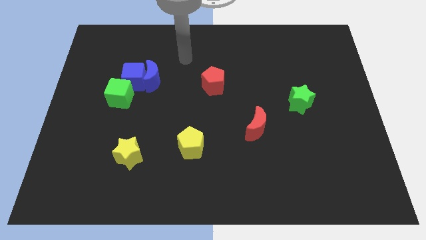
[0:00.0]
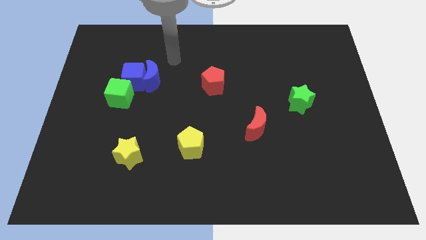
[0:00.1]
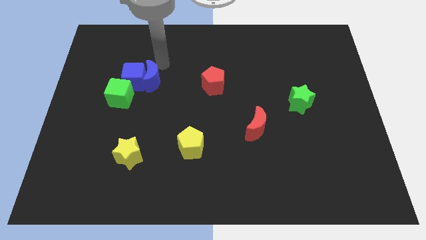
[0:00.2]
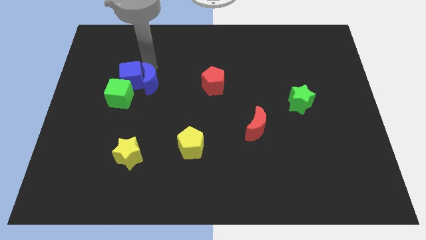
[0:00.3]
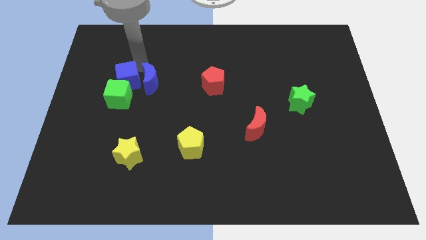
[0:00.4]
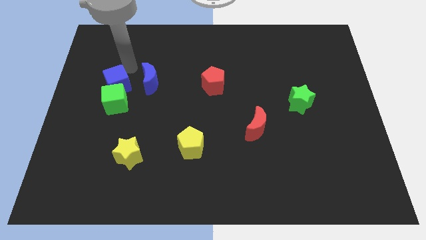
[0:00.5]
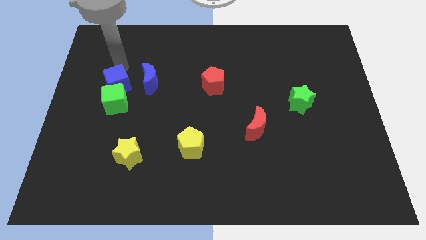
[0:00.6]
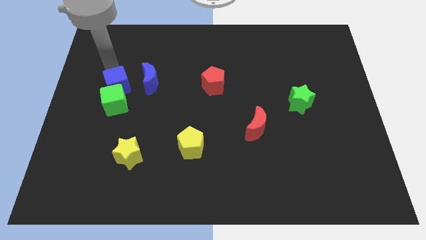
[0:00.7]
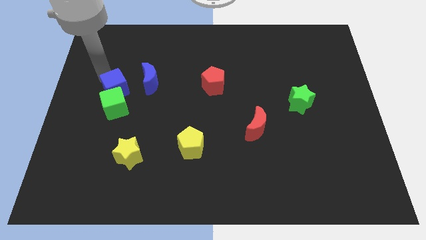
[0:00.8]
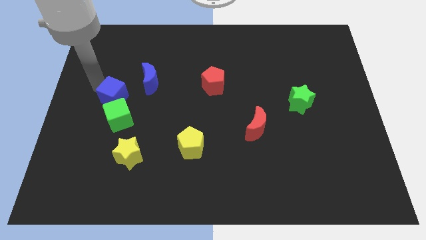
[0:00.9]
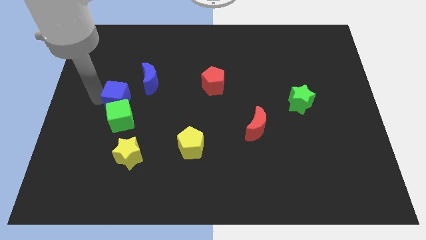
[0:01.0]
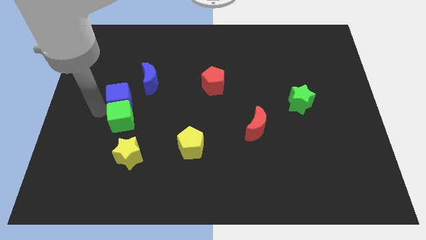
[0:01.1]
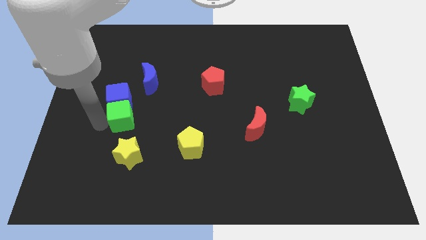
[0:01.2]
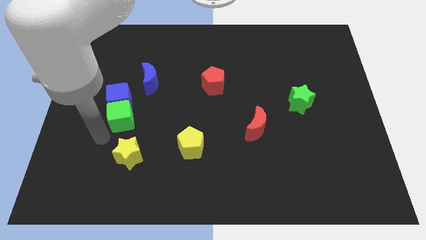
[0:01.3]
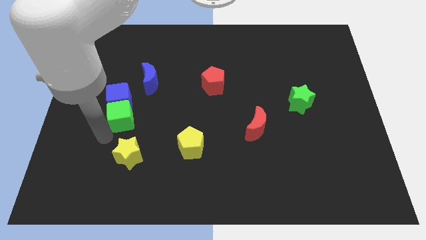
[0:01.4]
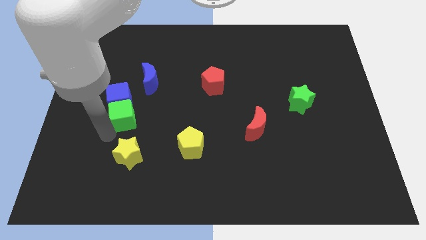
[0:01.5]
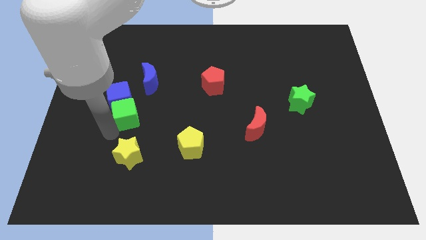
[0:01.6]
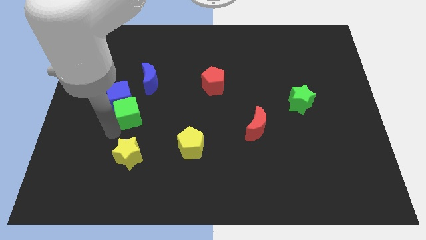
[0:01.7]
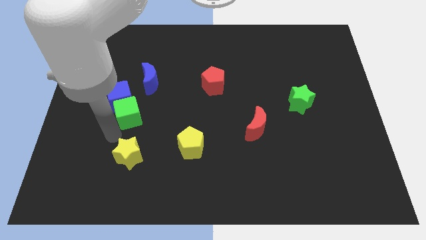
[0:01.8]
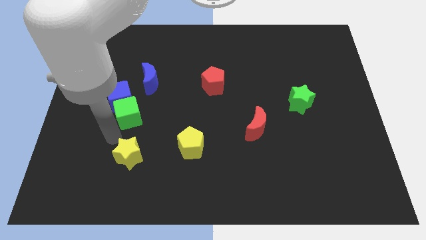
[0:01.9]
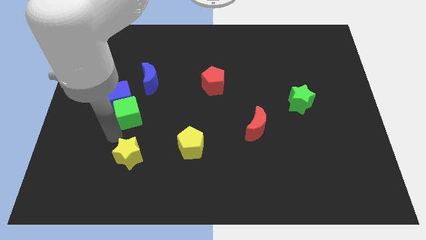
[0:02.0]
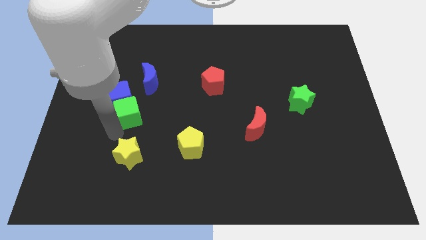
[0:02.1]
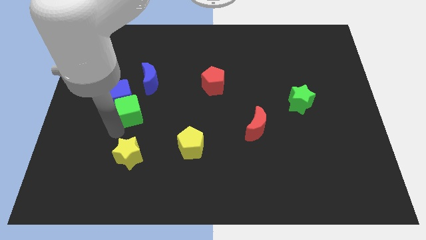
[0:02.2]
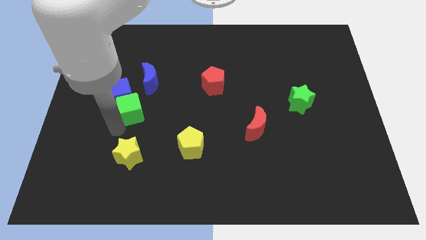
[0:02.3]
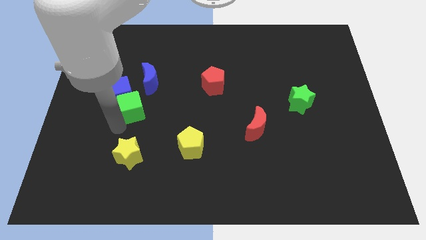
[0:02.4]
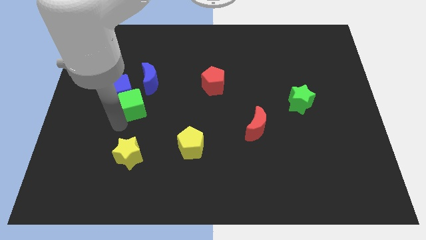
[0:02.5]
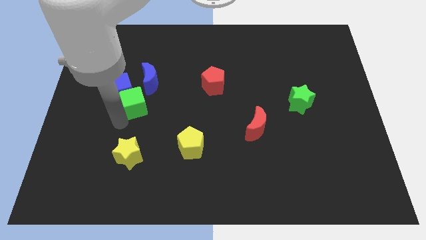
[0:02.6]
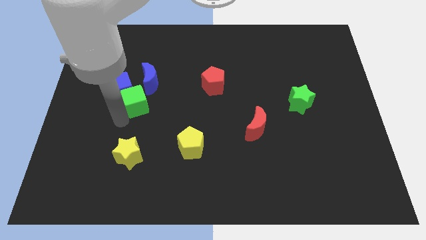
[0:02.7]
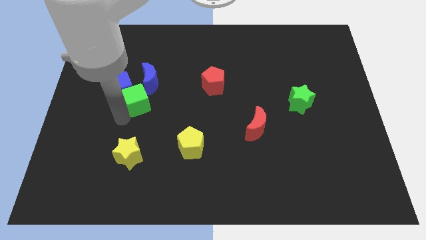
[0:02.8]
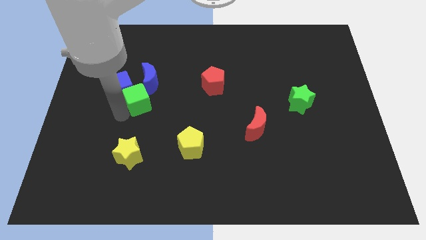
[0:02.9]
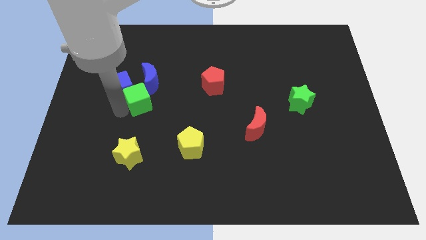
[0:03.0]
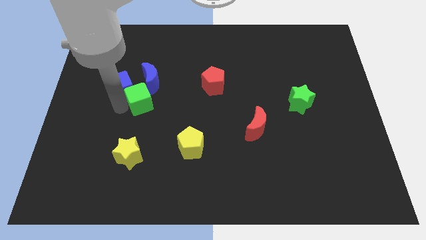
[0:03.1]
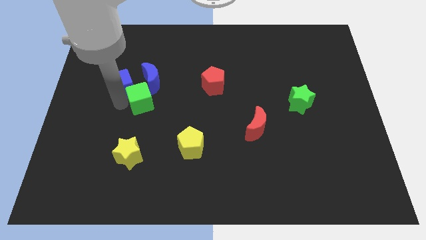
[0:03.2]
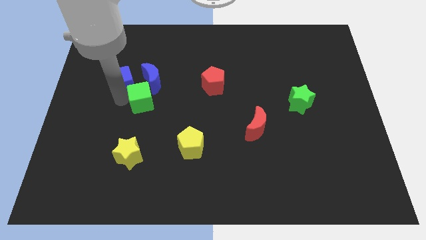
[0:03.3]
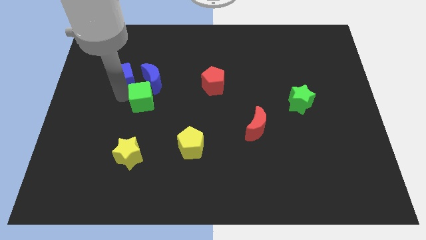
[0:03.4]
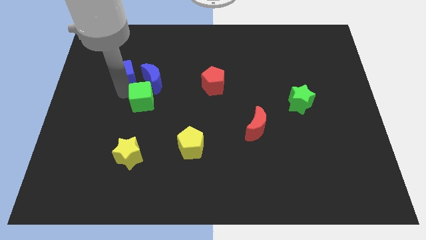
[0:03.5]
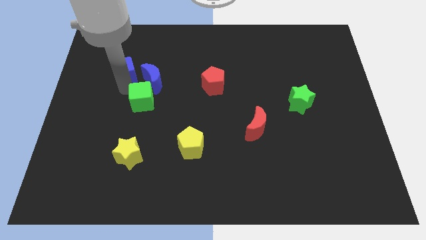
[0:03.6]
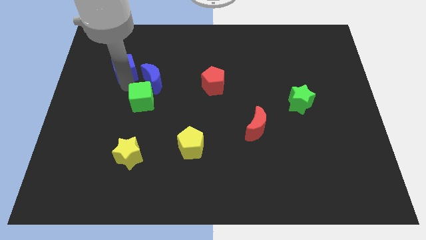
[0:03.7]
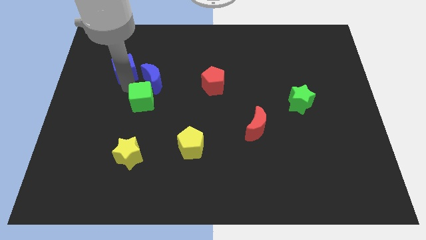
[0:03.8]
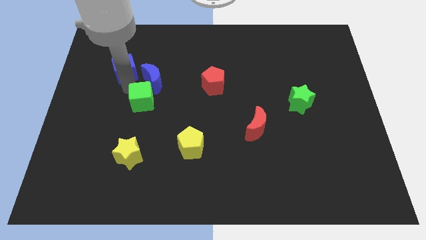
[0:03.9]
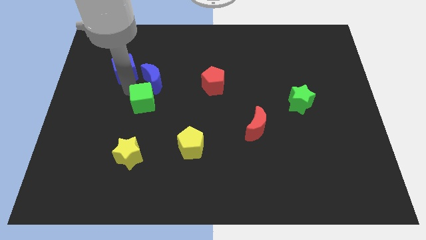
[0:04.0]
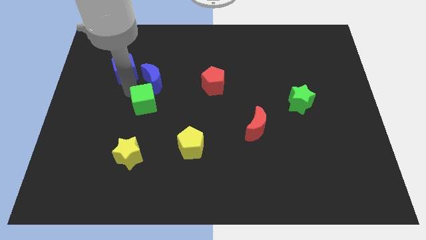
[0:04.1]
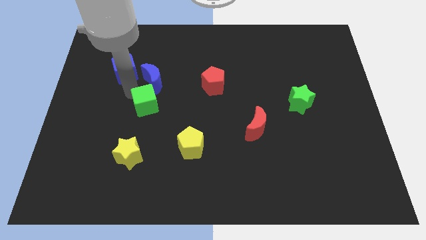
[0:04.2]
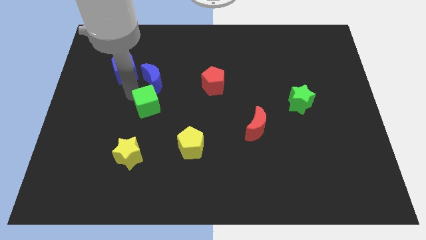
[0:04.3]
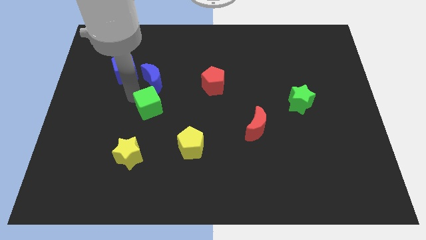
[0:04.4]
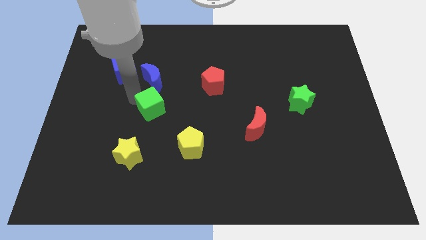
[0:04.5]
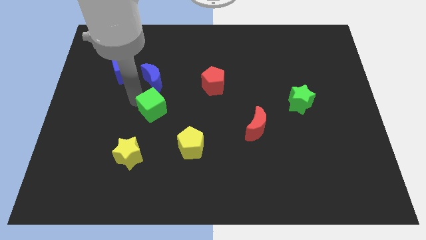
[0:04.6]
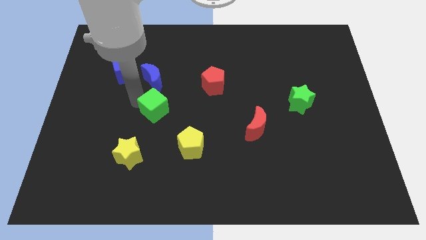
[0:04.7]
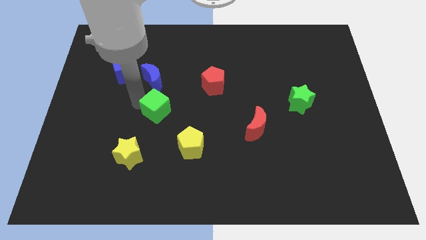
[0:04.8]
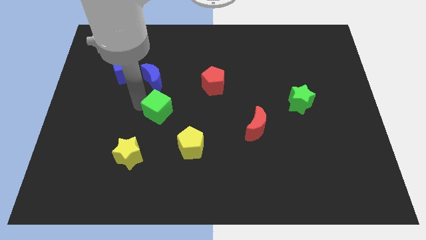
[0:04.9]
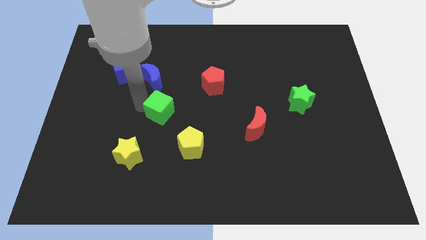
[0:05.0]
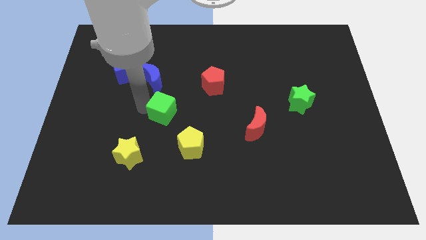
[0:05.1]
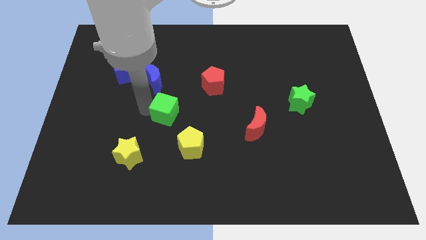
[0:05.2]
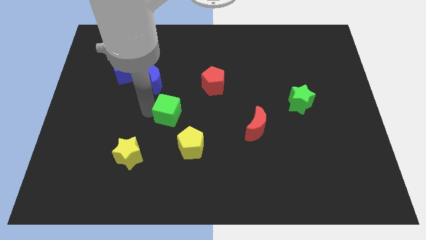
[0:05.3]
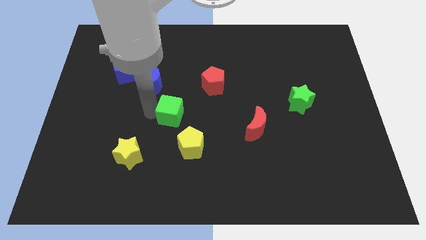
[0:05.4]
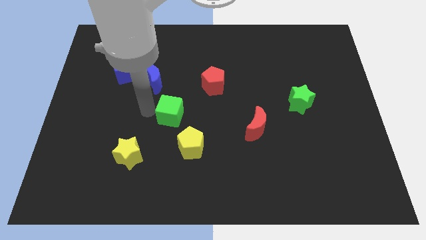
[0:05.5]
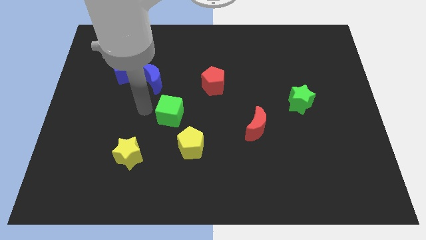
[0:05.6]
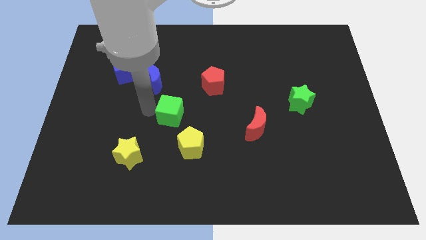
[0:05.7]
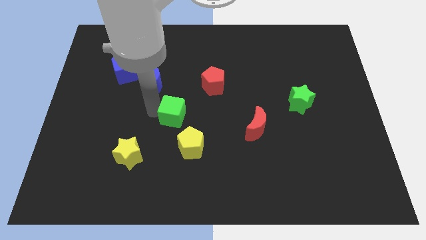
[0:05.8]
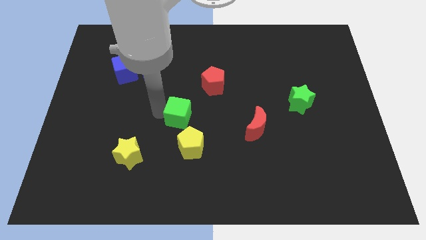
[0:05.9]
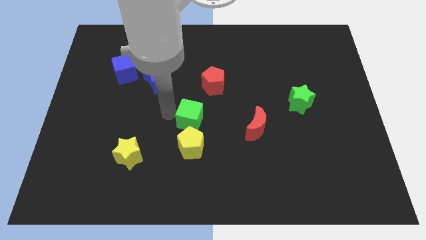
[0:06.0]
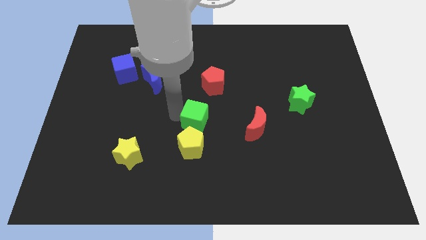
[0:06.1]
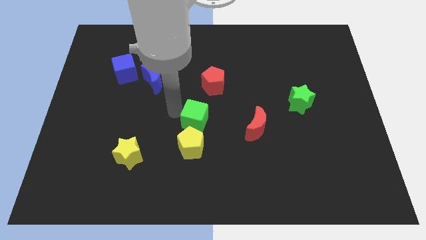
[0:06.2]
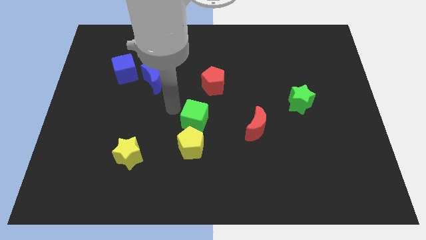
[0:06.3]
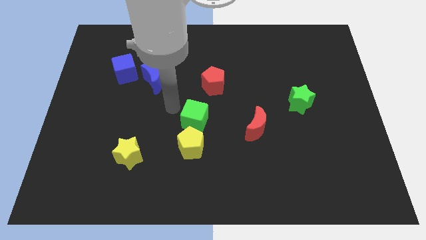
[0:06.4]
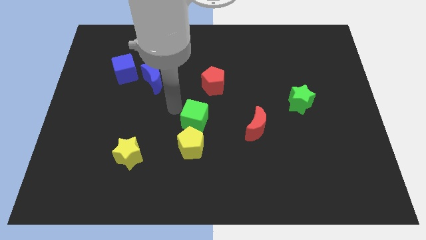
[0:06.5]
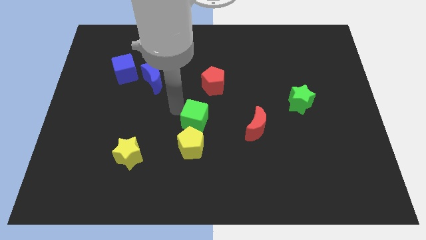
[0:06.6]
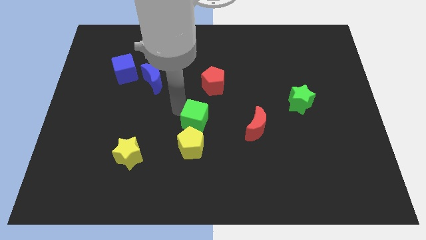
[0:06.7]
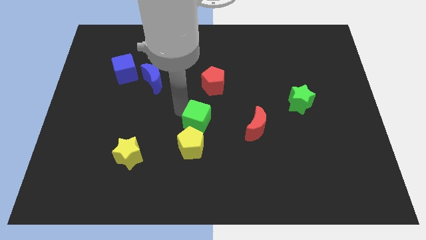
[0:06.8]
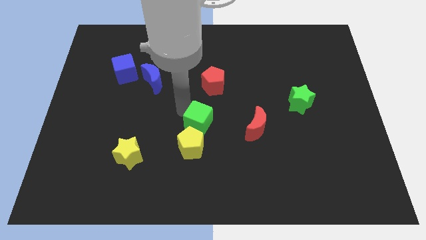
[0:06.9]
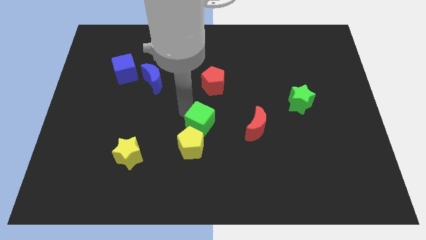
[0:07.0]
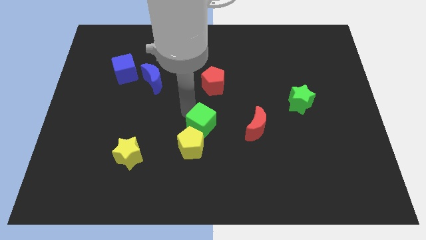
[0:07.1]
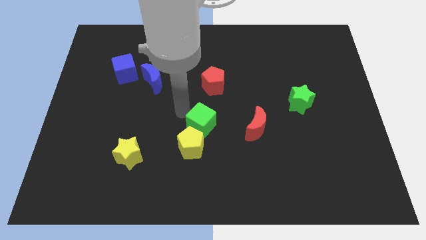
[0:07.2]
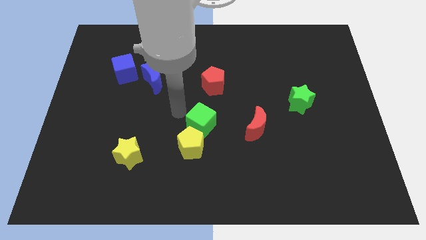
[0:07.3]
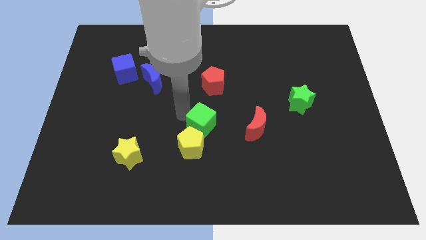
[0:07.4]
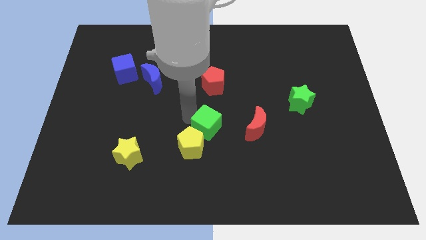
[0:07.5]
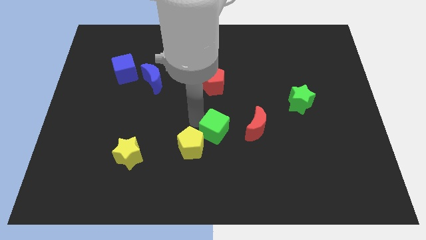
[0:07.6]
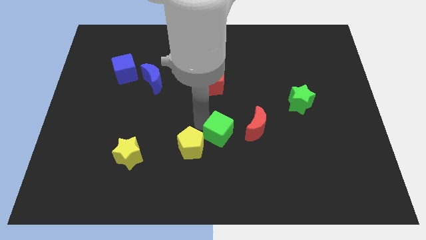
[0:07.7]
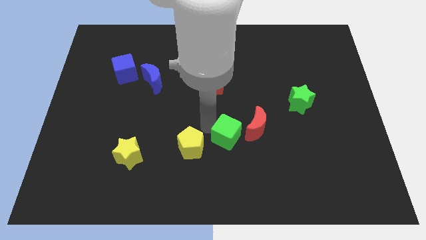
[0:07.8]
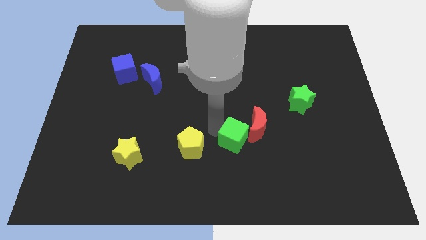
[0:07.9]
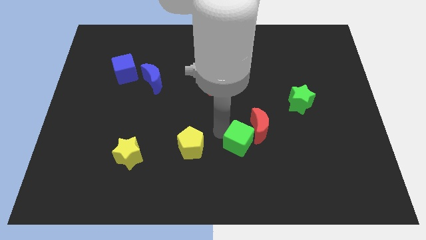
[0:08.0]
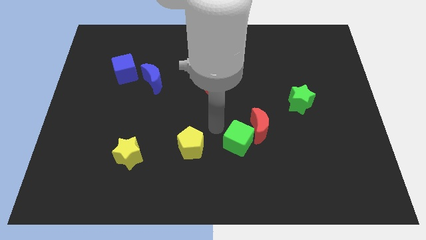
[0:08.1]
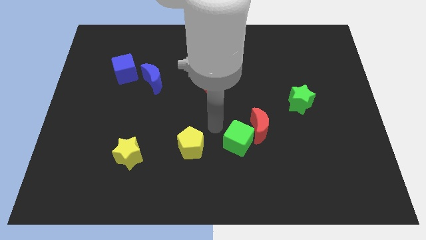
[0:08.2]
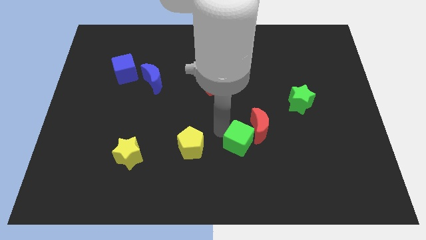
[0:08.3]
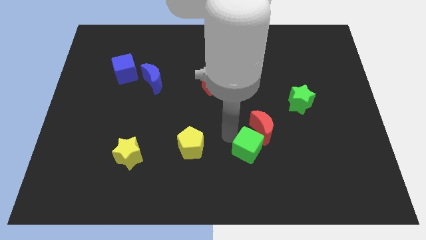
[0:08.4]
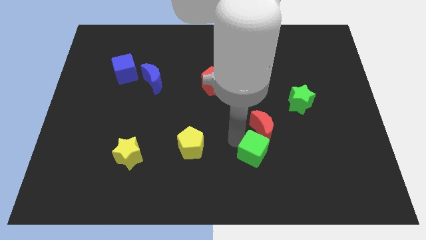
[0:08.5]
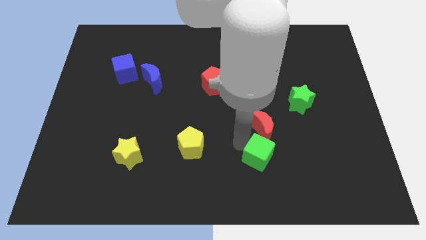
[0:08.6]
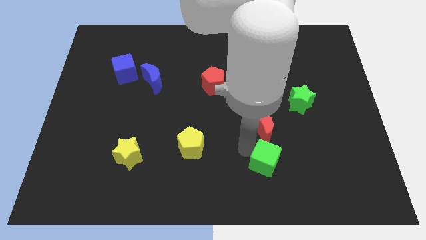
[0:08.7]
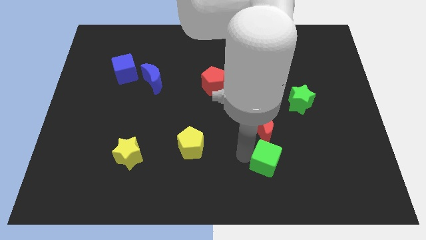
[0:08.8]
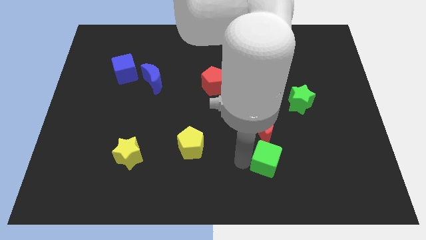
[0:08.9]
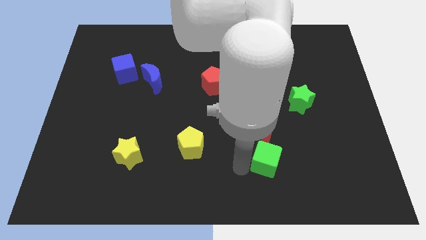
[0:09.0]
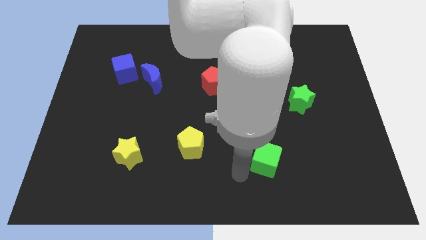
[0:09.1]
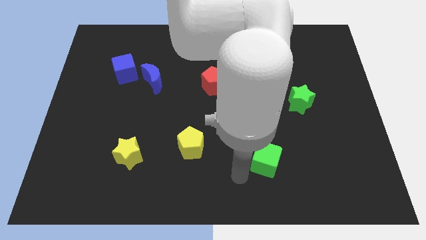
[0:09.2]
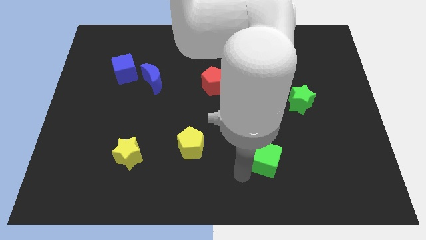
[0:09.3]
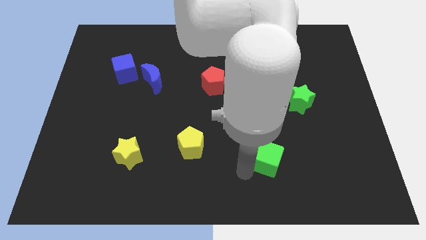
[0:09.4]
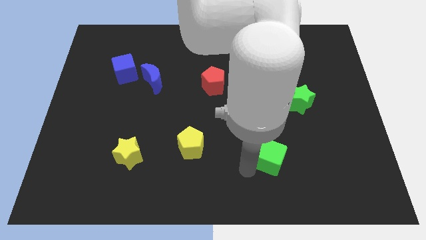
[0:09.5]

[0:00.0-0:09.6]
slide the green cube to the bottom right of the red moon
